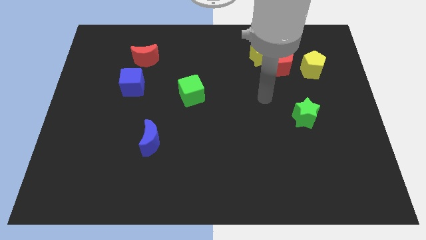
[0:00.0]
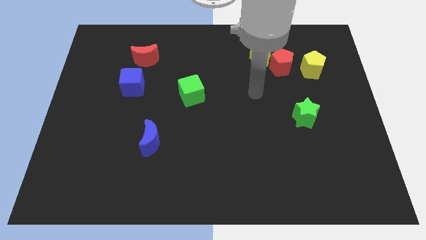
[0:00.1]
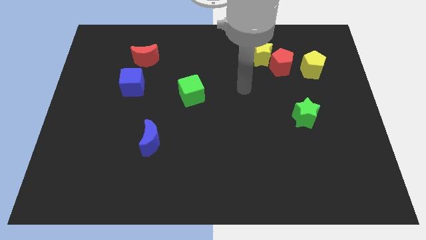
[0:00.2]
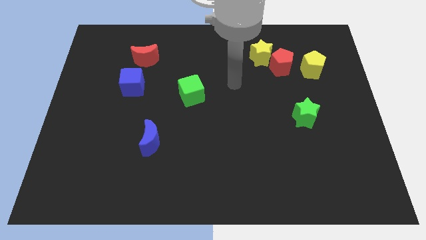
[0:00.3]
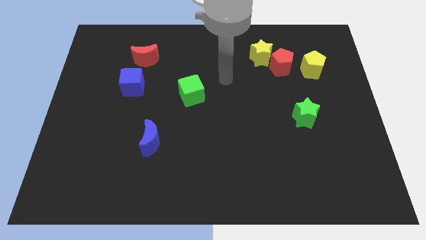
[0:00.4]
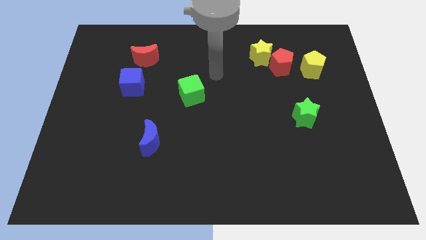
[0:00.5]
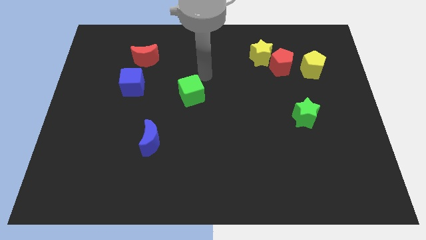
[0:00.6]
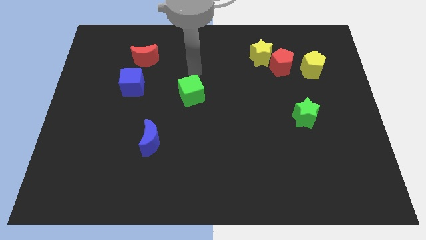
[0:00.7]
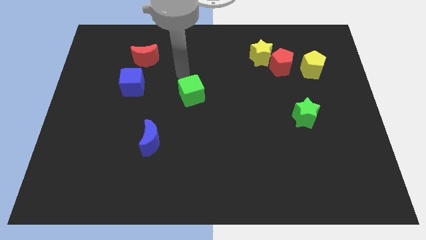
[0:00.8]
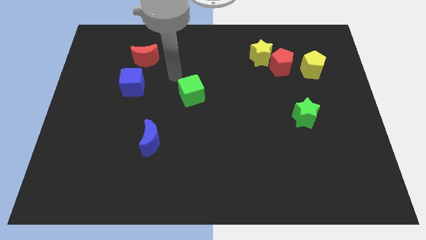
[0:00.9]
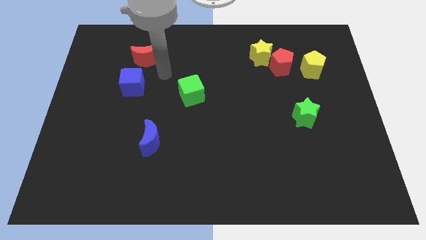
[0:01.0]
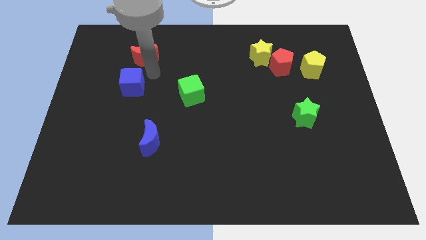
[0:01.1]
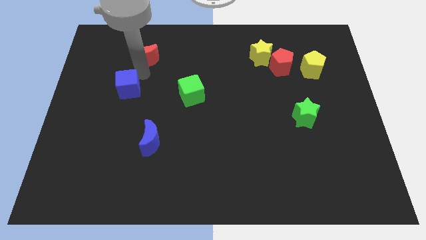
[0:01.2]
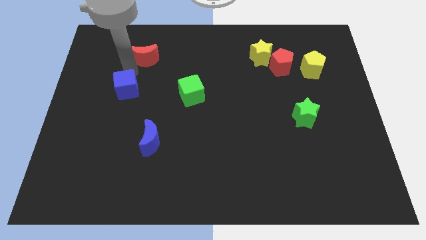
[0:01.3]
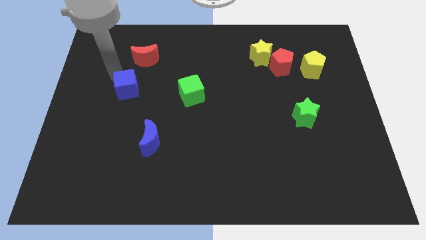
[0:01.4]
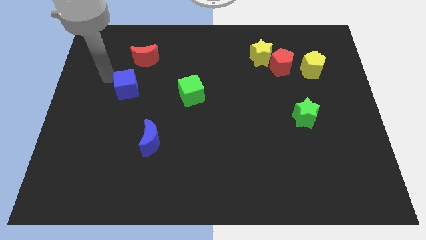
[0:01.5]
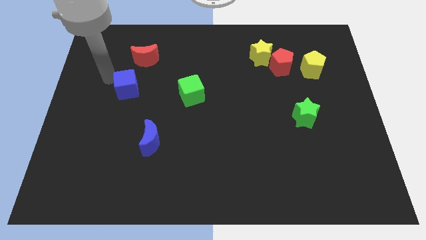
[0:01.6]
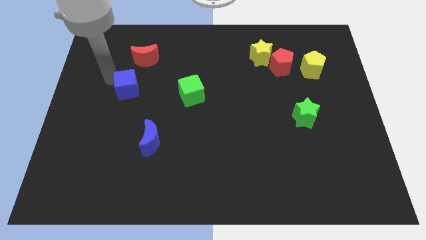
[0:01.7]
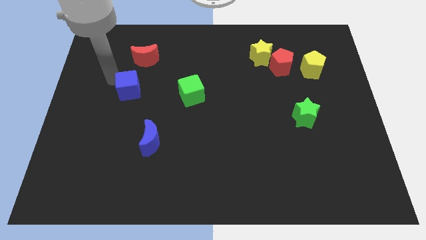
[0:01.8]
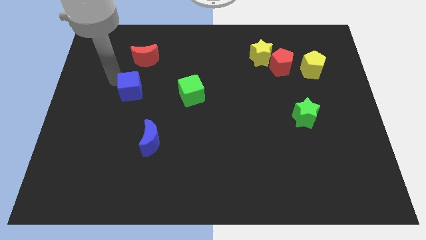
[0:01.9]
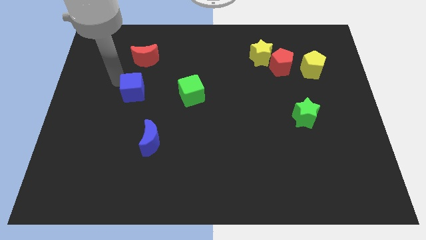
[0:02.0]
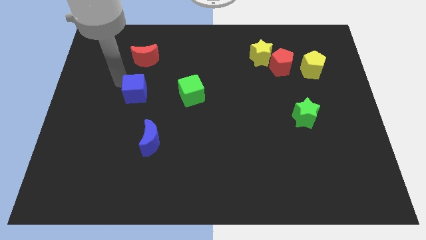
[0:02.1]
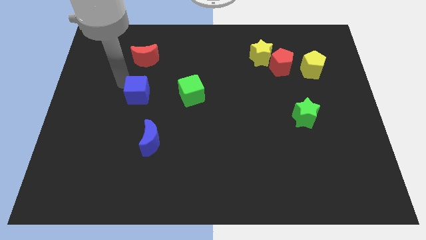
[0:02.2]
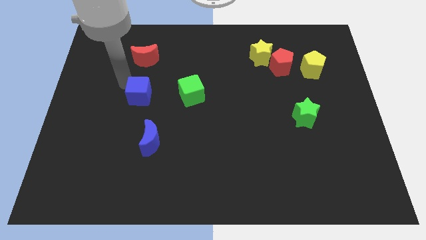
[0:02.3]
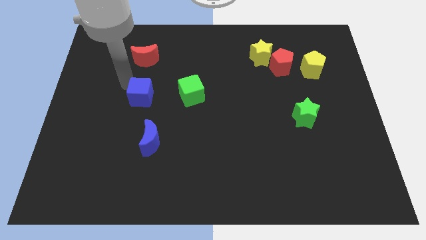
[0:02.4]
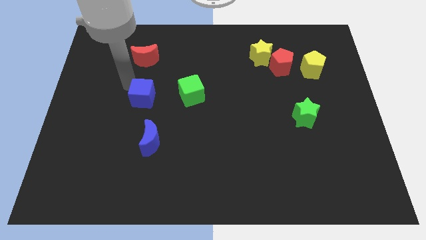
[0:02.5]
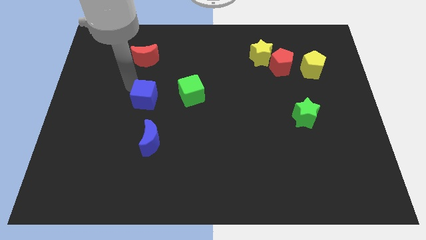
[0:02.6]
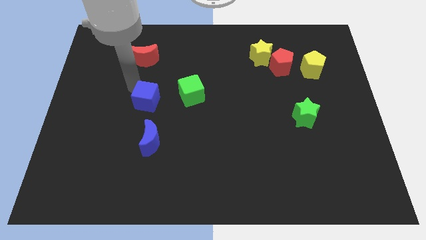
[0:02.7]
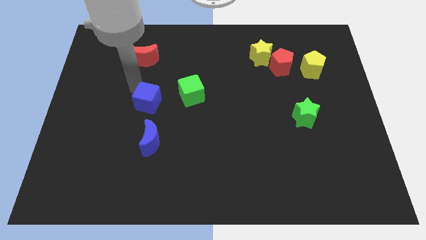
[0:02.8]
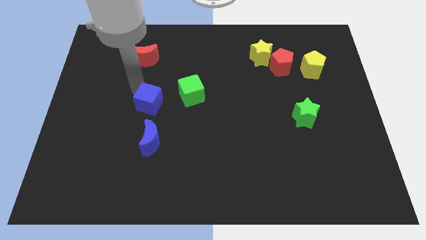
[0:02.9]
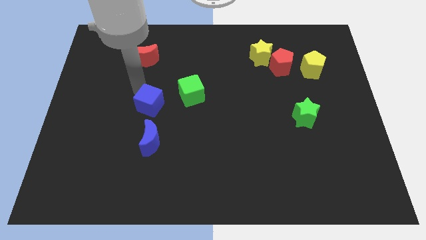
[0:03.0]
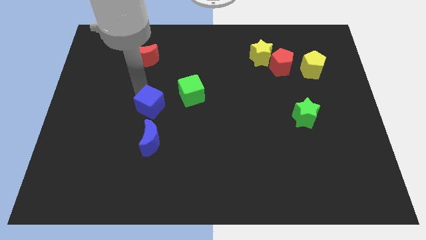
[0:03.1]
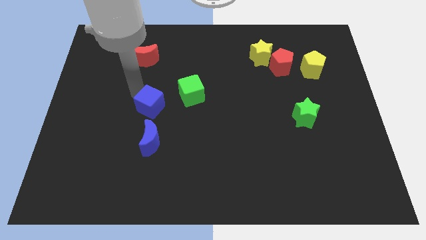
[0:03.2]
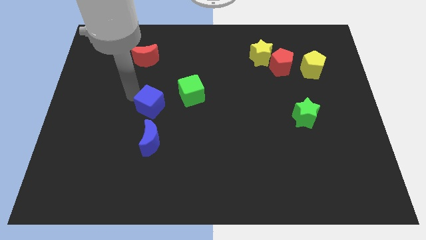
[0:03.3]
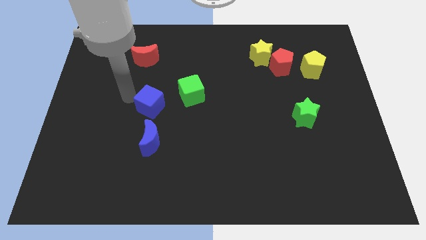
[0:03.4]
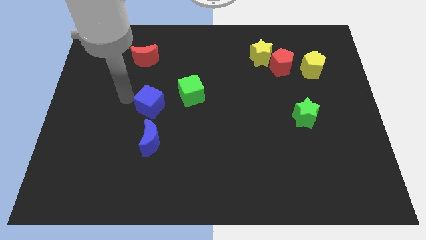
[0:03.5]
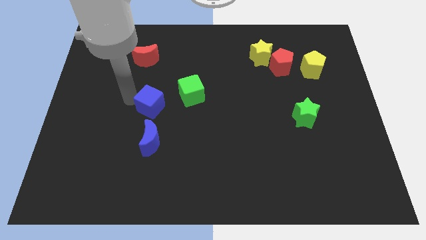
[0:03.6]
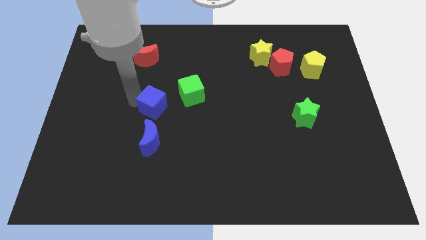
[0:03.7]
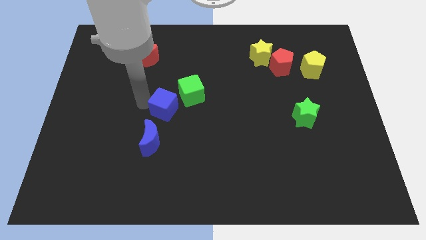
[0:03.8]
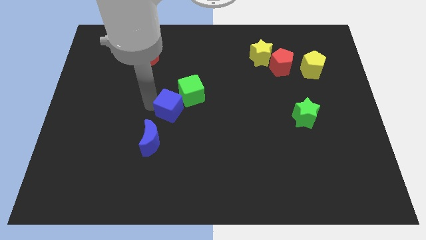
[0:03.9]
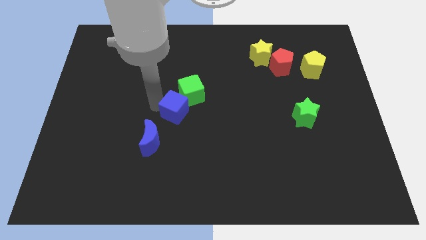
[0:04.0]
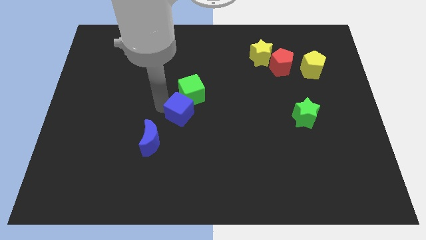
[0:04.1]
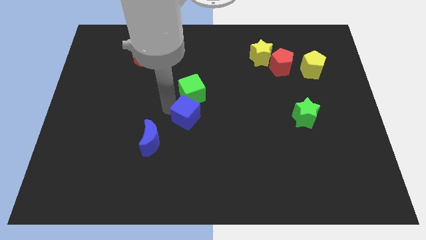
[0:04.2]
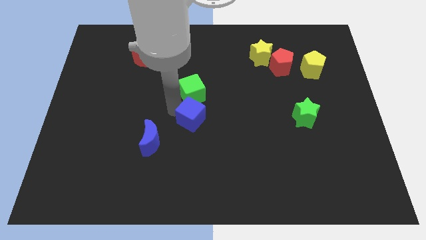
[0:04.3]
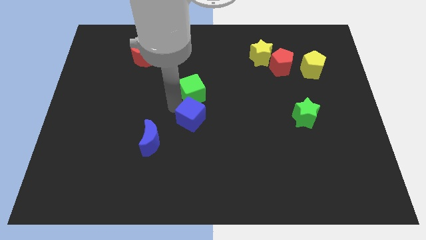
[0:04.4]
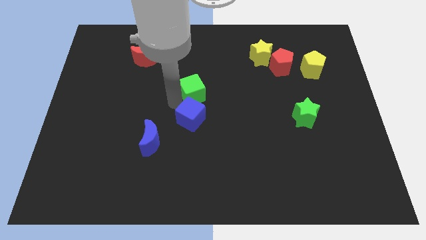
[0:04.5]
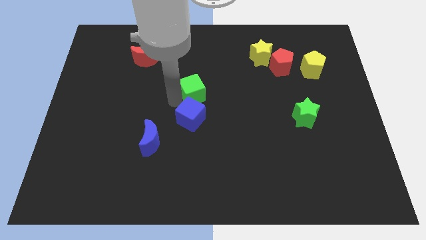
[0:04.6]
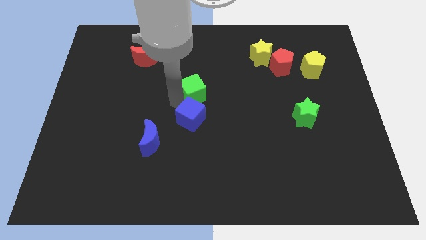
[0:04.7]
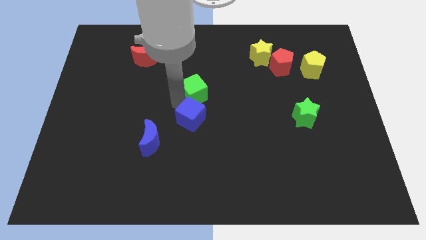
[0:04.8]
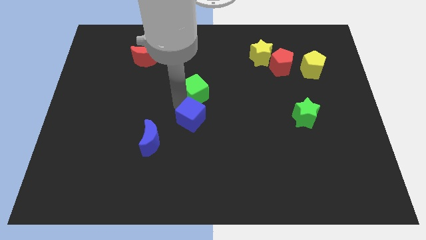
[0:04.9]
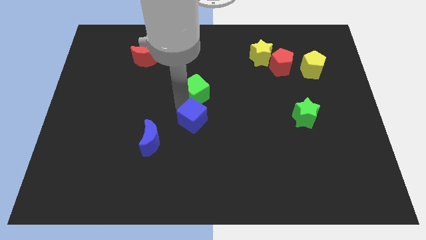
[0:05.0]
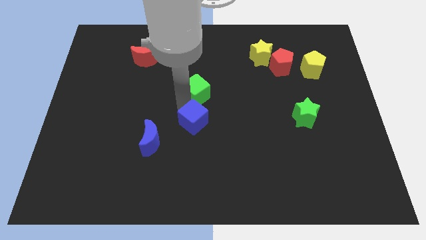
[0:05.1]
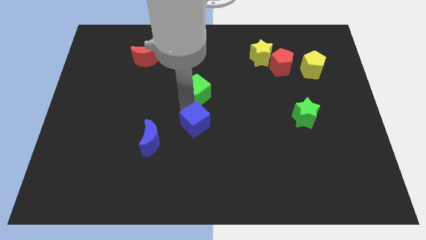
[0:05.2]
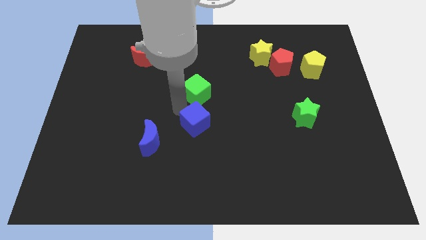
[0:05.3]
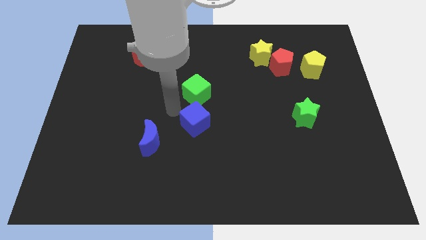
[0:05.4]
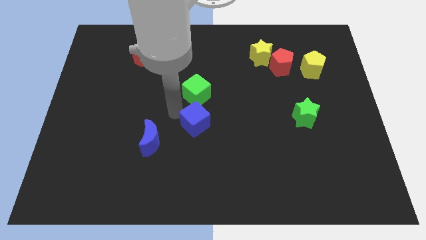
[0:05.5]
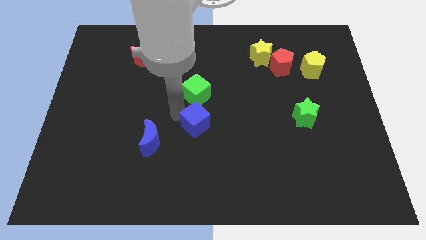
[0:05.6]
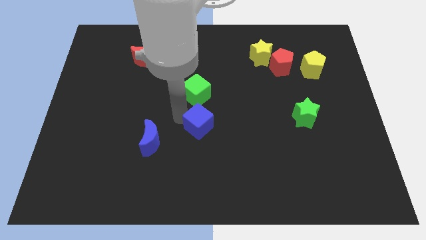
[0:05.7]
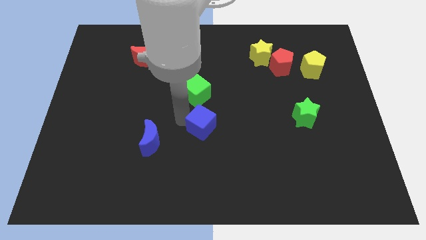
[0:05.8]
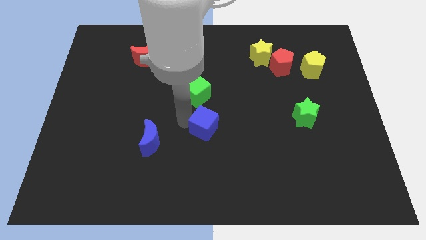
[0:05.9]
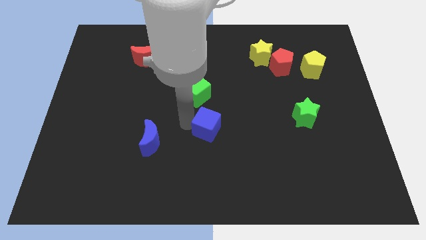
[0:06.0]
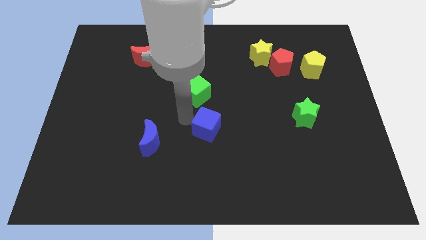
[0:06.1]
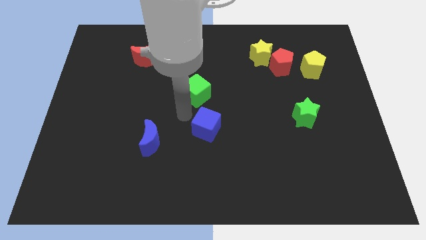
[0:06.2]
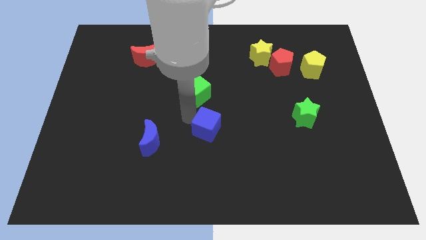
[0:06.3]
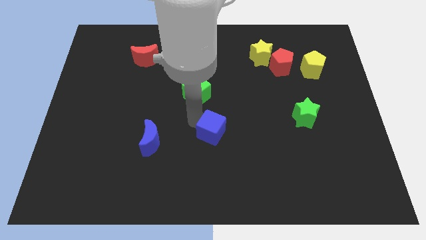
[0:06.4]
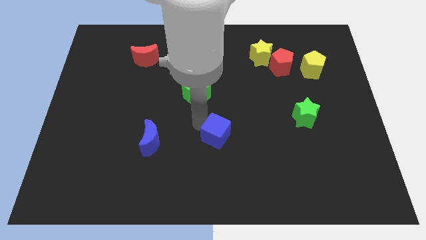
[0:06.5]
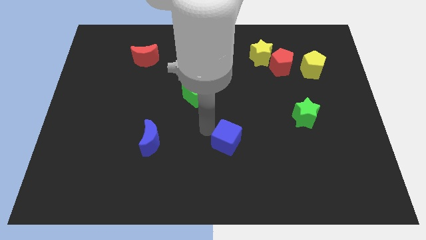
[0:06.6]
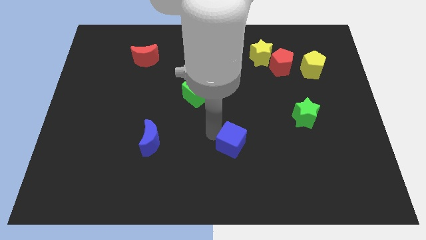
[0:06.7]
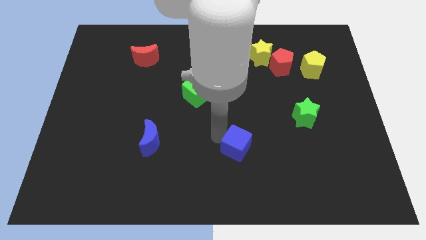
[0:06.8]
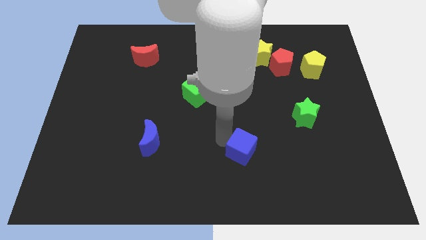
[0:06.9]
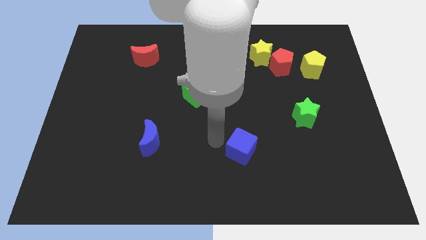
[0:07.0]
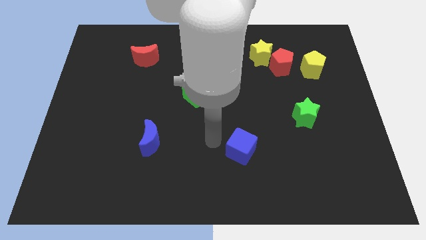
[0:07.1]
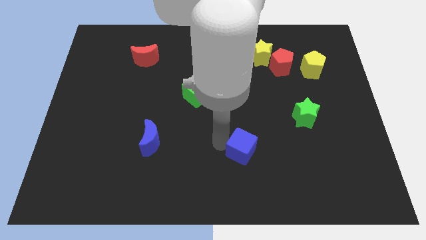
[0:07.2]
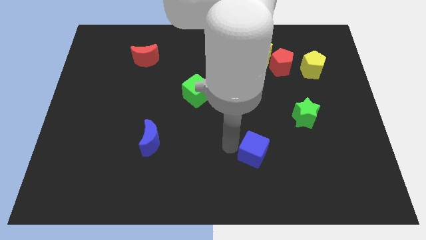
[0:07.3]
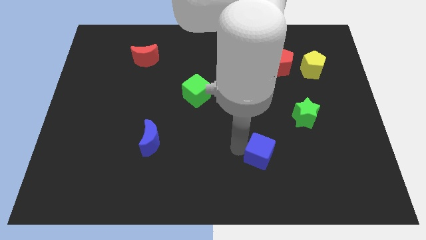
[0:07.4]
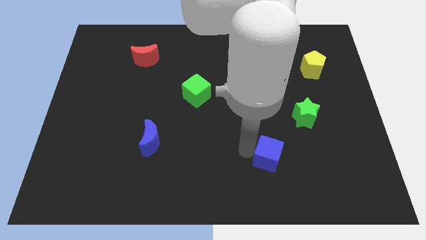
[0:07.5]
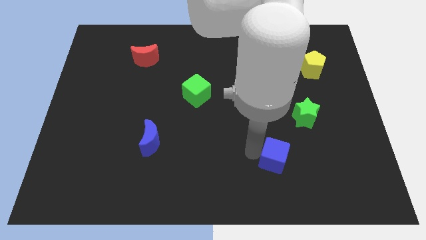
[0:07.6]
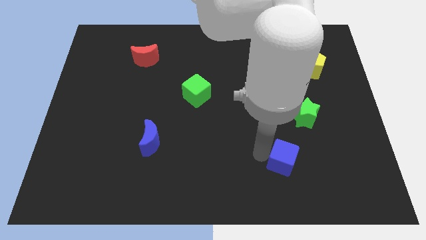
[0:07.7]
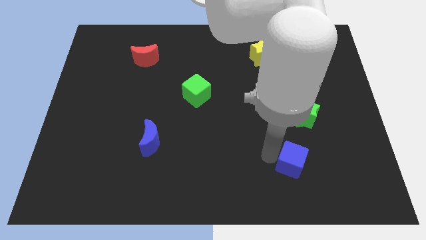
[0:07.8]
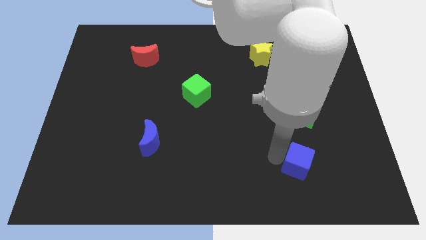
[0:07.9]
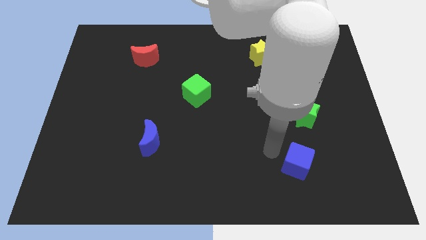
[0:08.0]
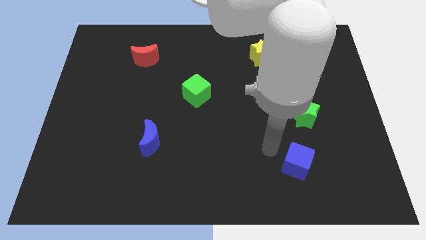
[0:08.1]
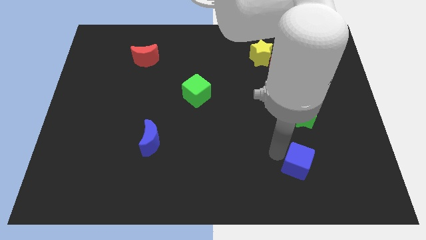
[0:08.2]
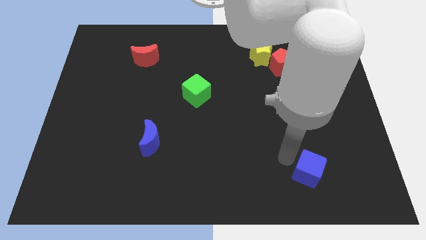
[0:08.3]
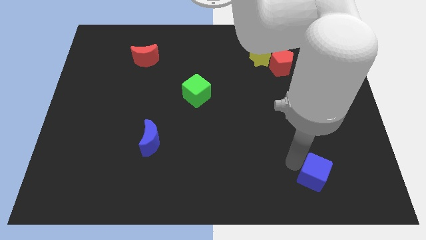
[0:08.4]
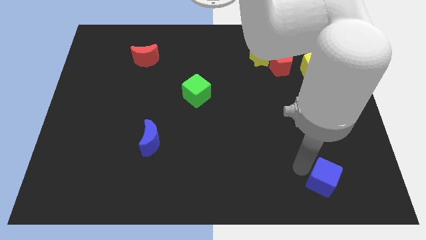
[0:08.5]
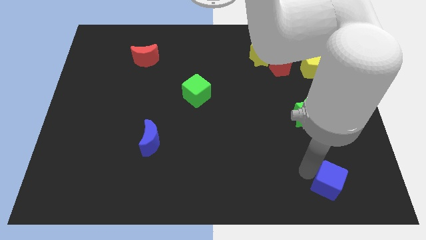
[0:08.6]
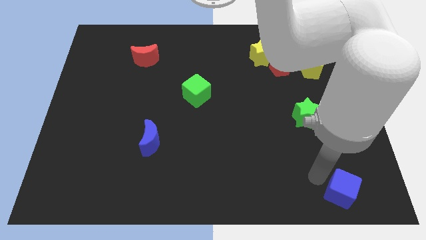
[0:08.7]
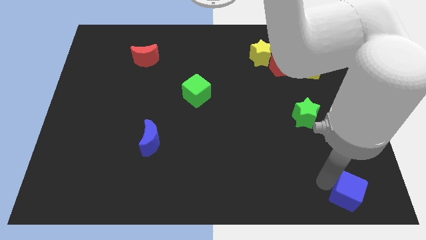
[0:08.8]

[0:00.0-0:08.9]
push the blue cube to the bottom right corner
